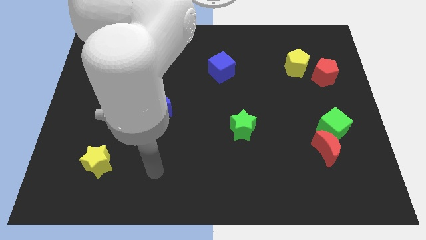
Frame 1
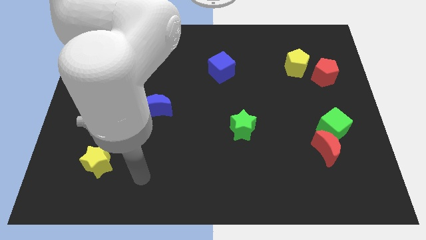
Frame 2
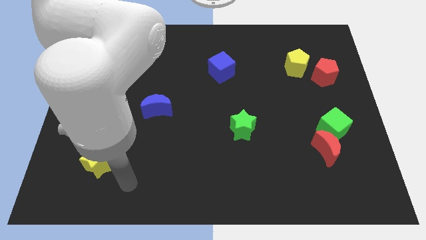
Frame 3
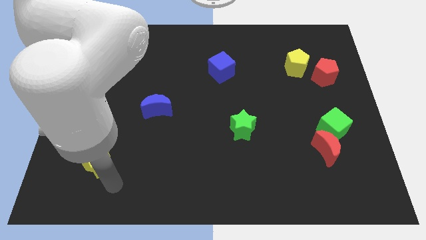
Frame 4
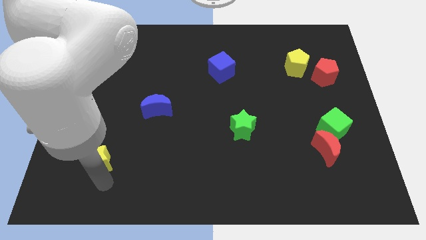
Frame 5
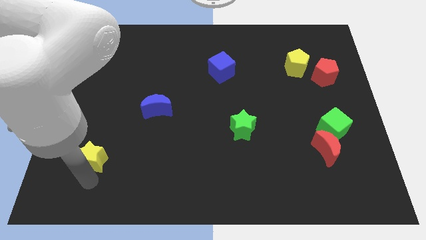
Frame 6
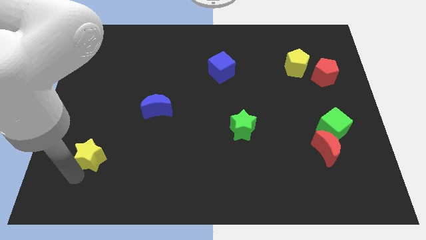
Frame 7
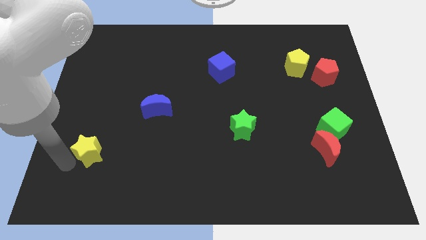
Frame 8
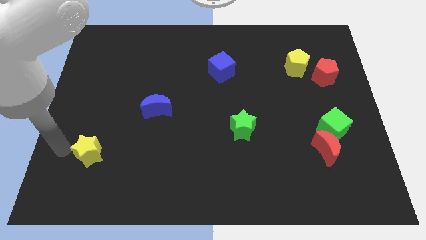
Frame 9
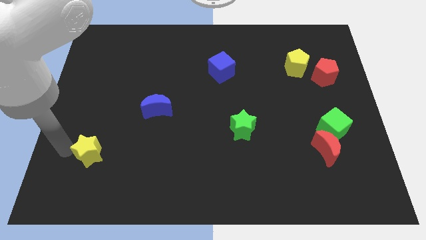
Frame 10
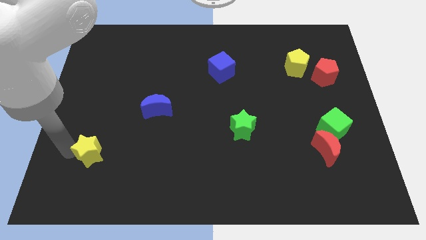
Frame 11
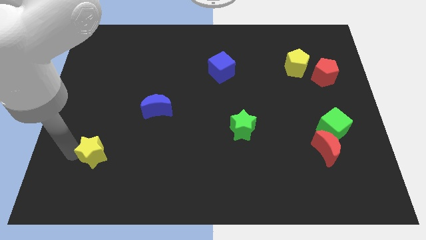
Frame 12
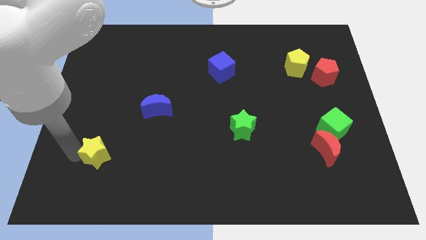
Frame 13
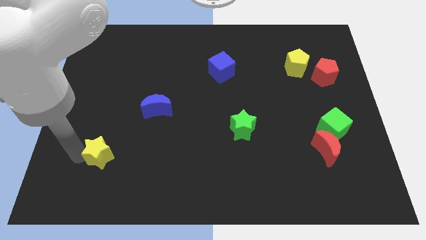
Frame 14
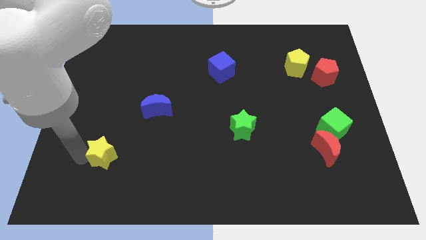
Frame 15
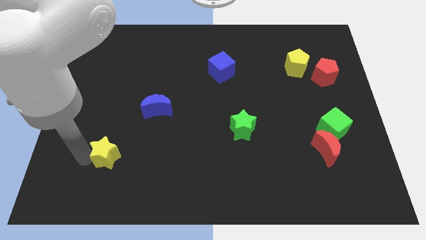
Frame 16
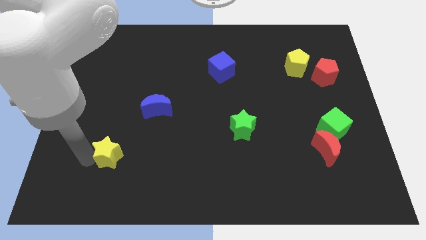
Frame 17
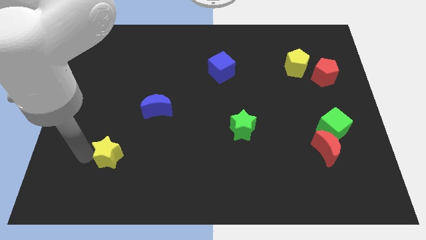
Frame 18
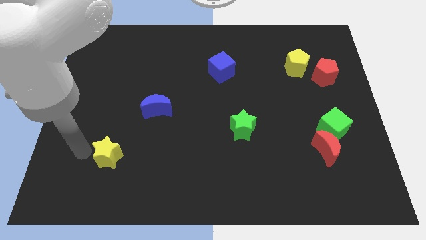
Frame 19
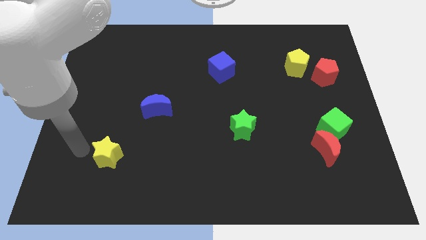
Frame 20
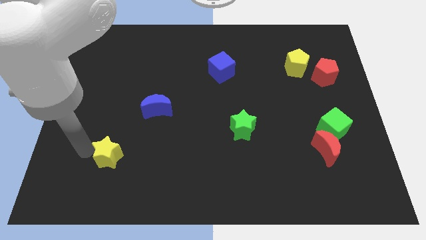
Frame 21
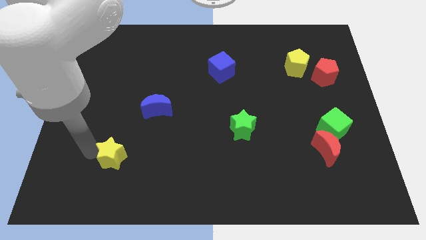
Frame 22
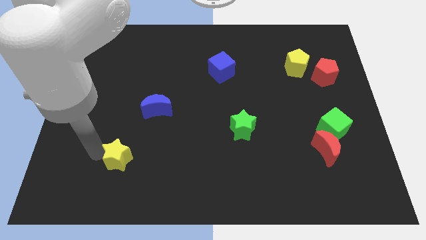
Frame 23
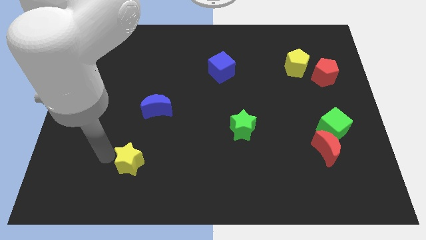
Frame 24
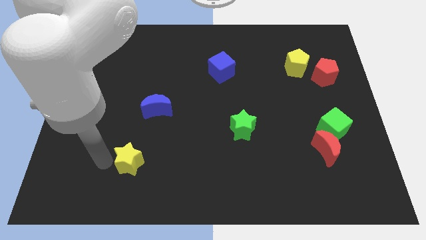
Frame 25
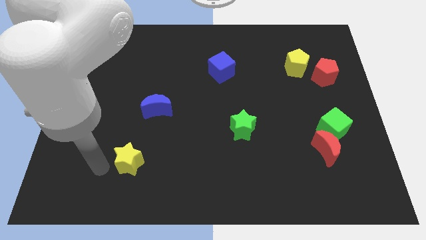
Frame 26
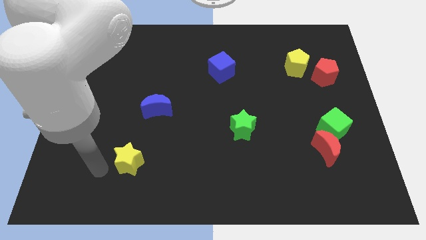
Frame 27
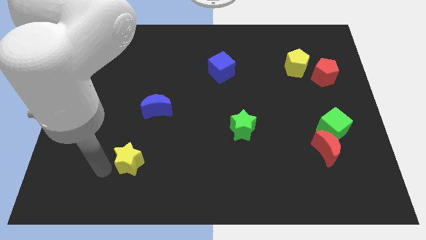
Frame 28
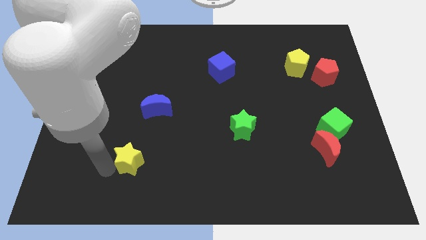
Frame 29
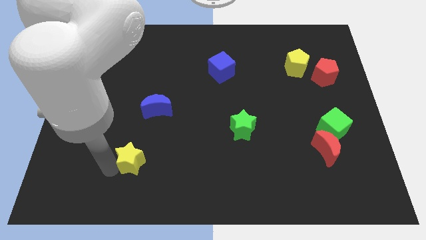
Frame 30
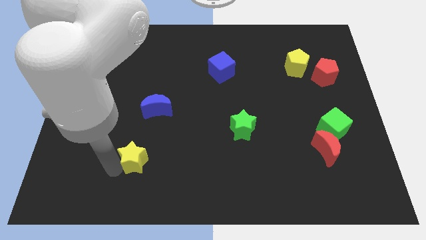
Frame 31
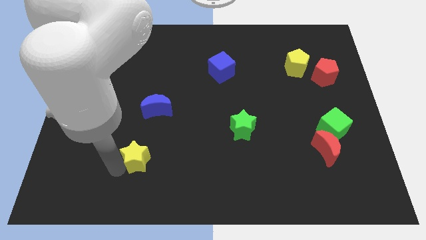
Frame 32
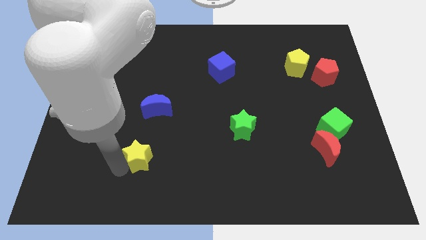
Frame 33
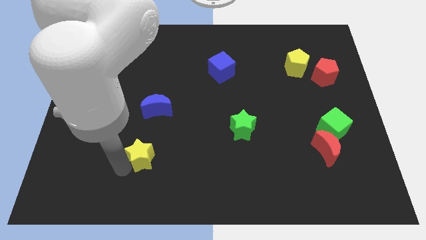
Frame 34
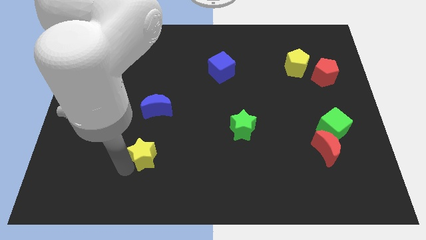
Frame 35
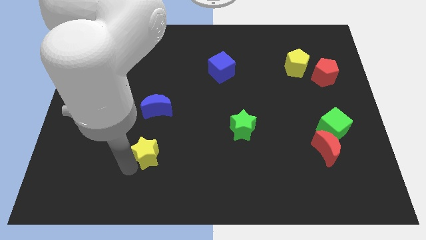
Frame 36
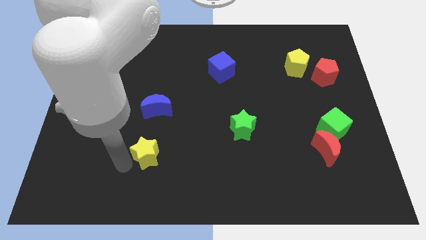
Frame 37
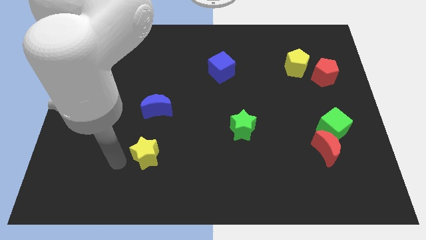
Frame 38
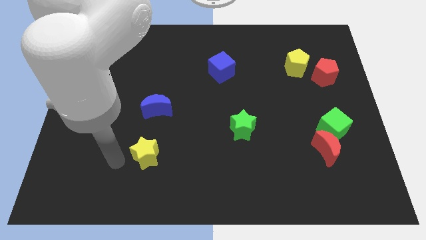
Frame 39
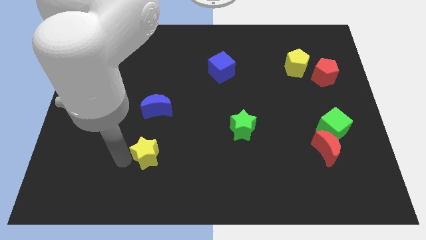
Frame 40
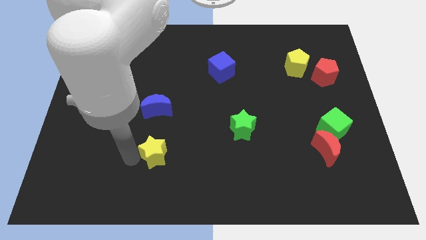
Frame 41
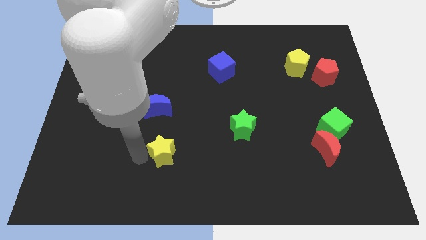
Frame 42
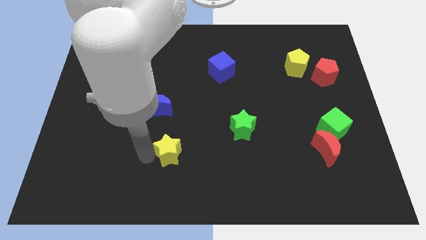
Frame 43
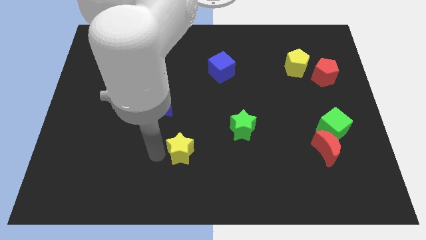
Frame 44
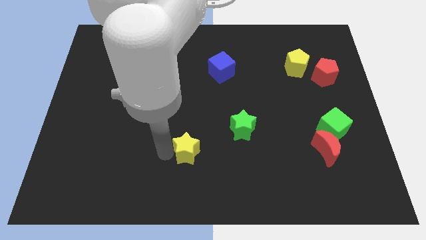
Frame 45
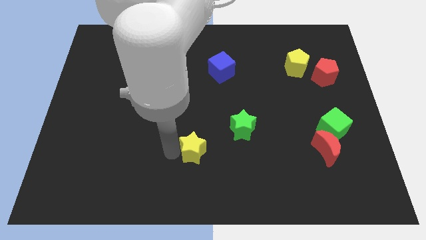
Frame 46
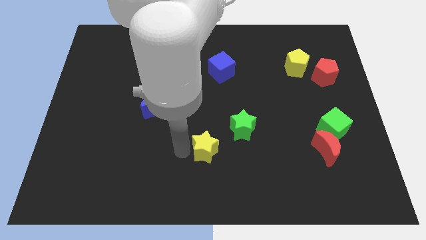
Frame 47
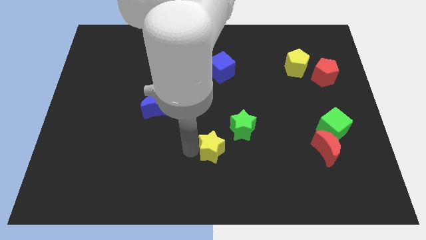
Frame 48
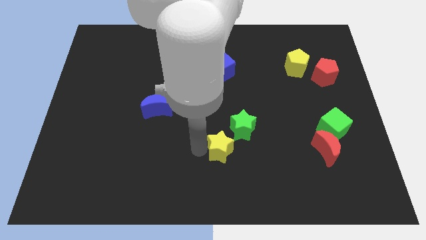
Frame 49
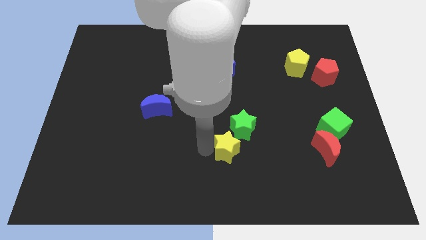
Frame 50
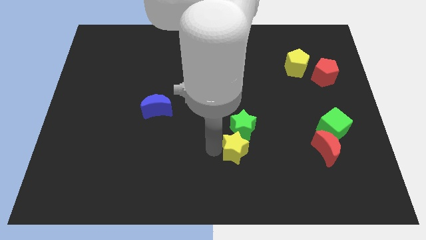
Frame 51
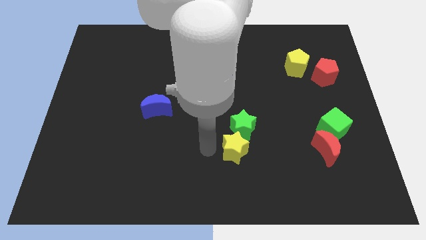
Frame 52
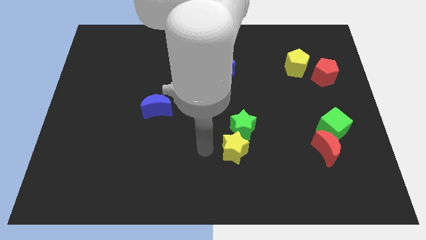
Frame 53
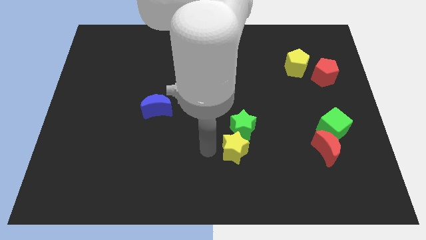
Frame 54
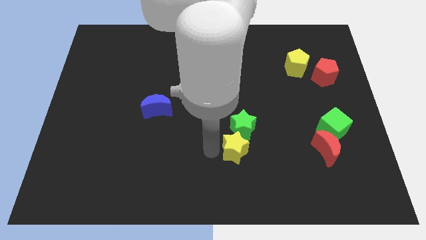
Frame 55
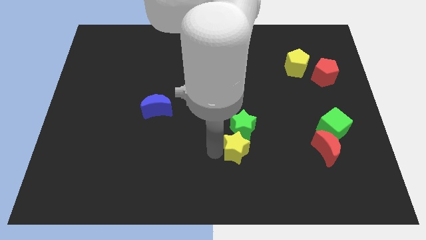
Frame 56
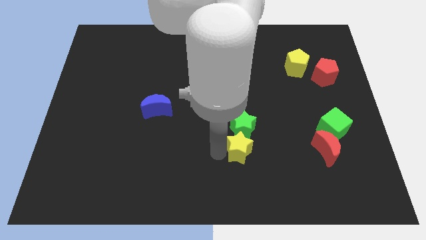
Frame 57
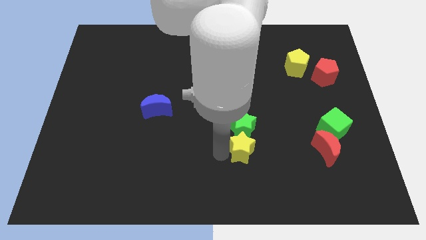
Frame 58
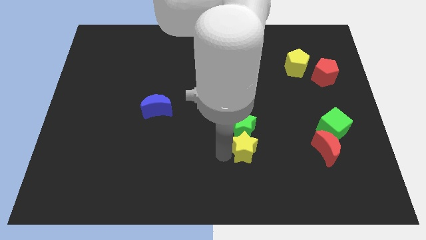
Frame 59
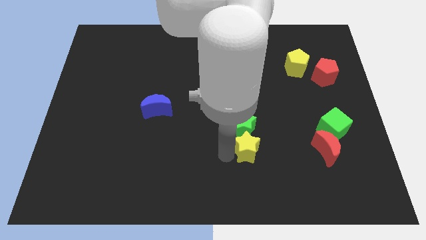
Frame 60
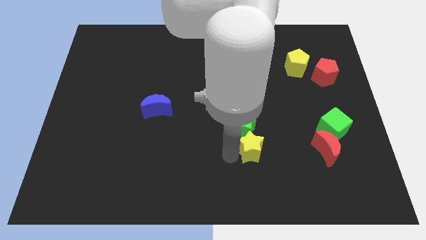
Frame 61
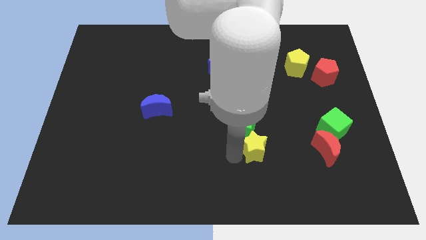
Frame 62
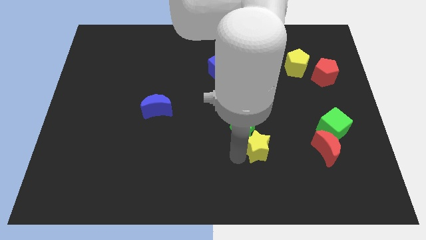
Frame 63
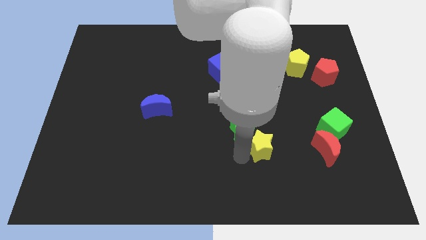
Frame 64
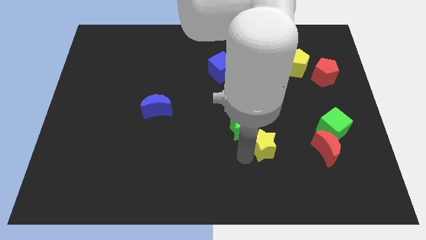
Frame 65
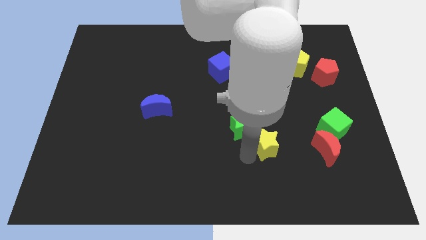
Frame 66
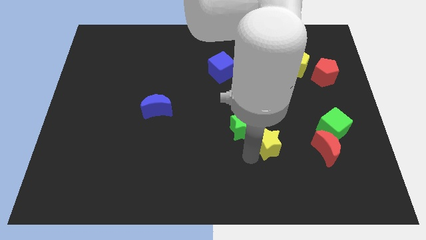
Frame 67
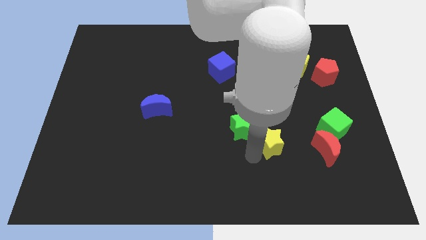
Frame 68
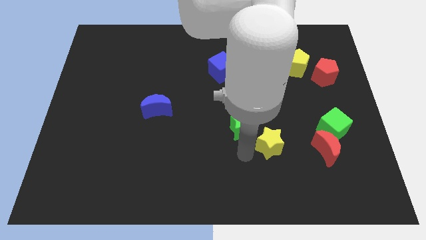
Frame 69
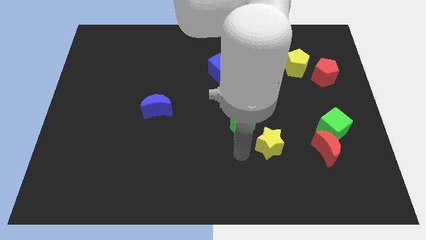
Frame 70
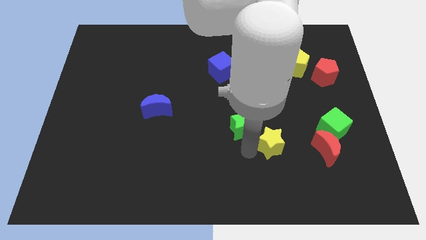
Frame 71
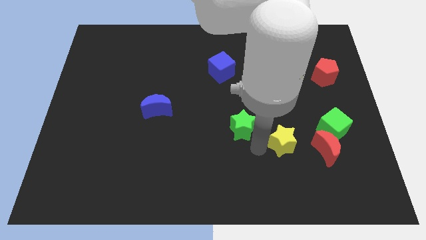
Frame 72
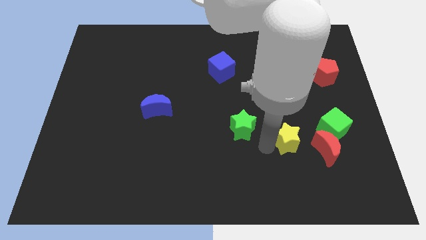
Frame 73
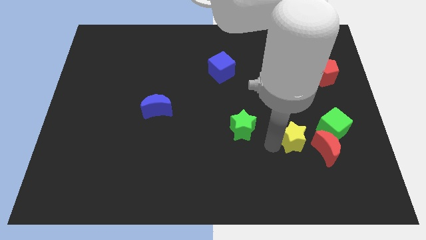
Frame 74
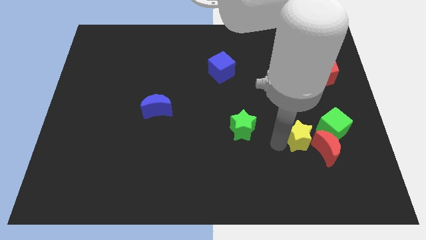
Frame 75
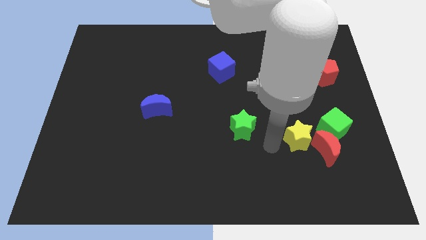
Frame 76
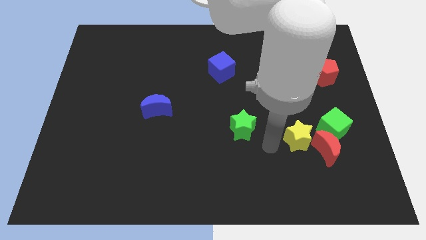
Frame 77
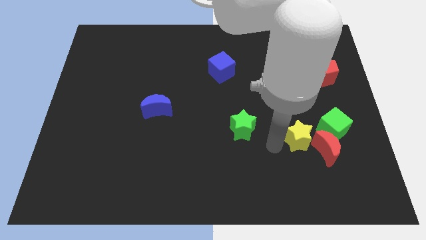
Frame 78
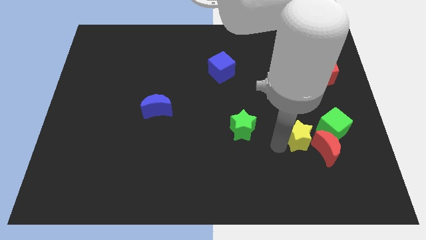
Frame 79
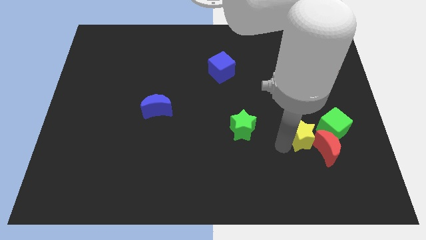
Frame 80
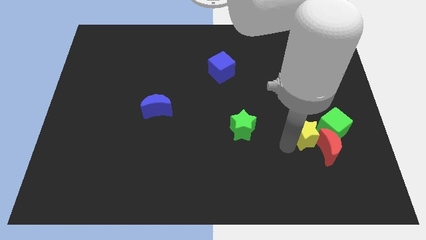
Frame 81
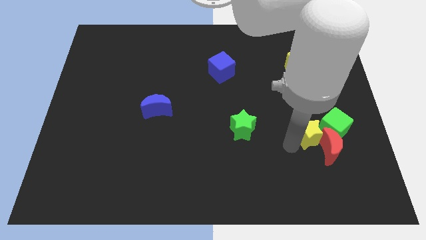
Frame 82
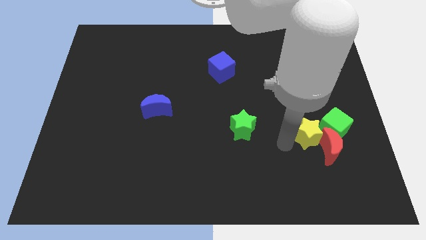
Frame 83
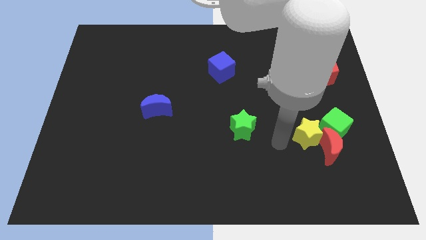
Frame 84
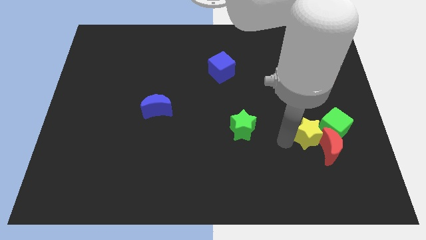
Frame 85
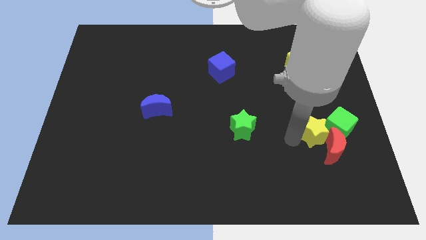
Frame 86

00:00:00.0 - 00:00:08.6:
move the yellow star towards the green cube
